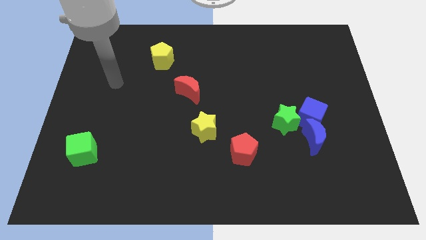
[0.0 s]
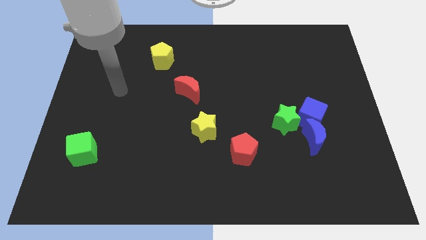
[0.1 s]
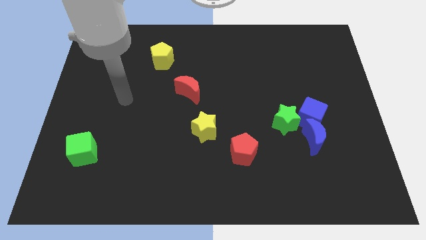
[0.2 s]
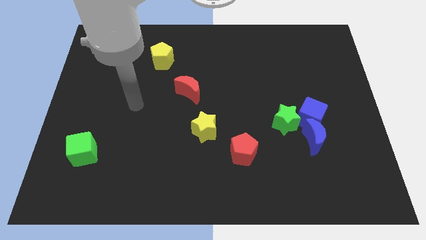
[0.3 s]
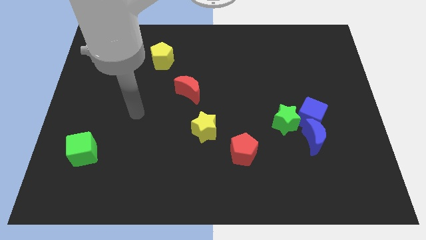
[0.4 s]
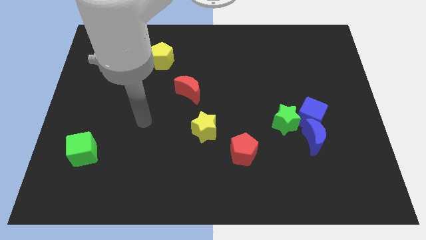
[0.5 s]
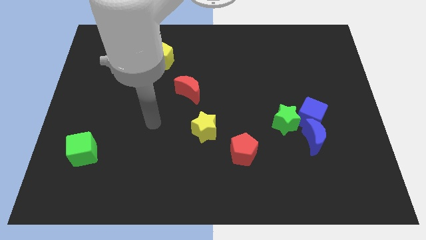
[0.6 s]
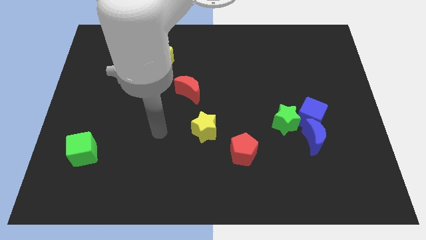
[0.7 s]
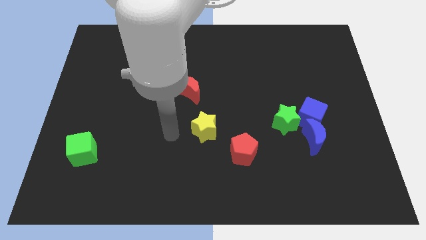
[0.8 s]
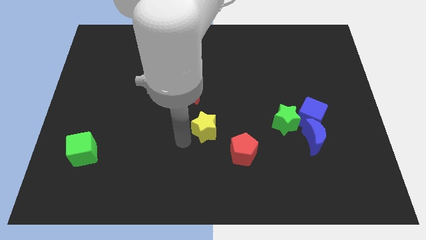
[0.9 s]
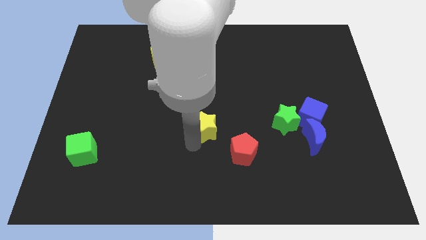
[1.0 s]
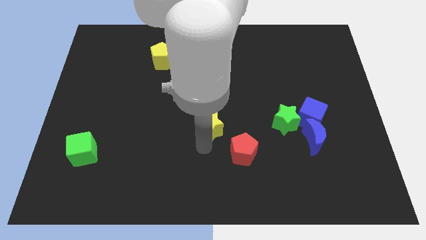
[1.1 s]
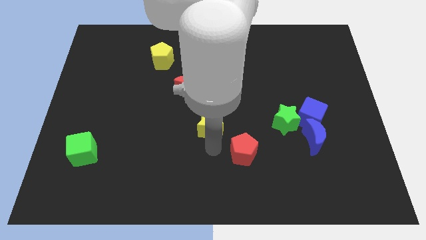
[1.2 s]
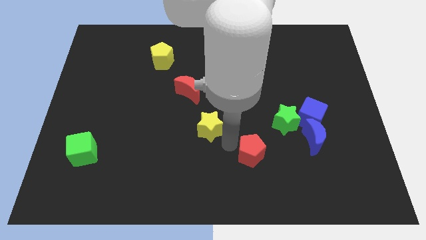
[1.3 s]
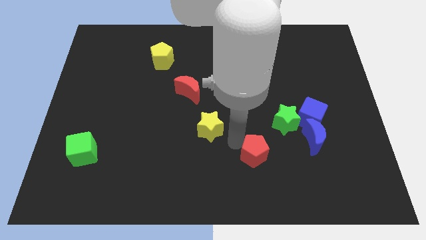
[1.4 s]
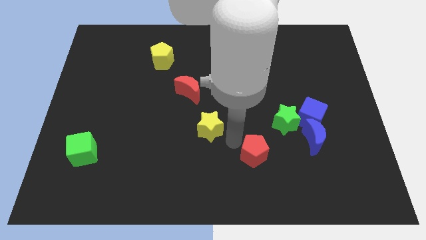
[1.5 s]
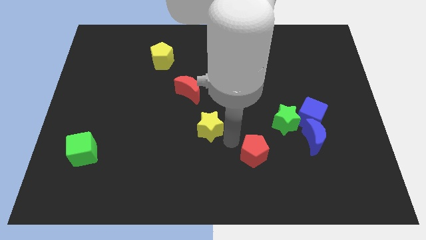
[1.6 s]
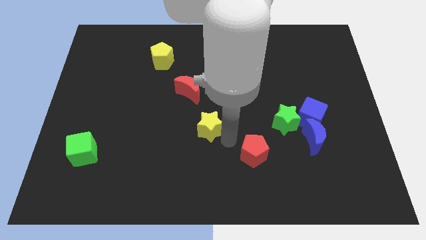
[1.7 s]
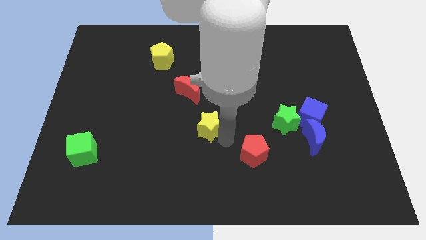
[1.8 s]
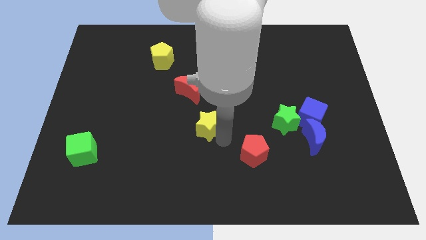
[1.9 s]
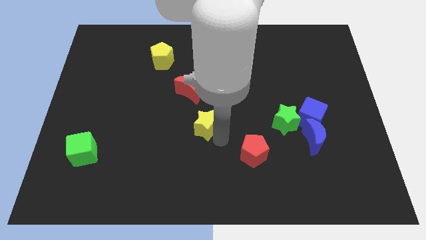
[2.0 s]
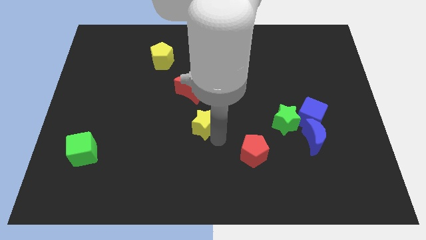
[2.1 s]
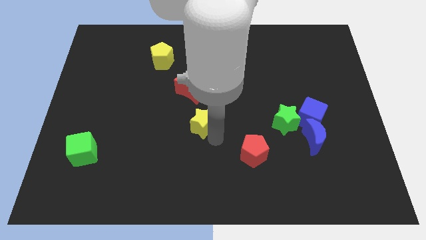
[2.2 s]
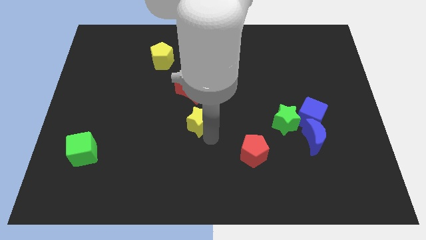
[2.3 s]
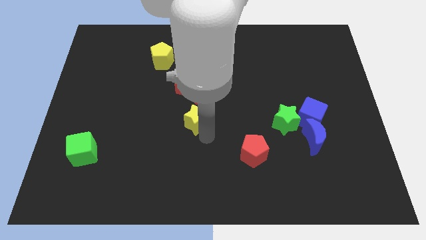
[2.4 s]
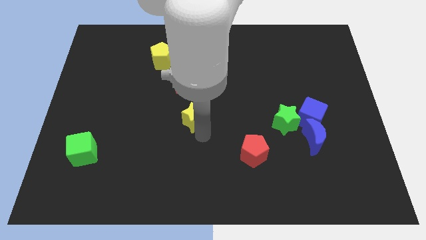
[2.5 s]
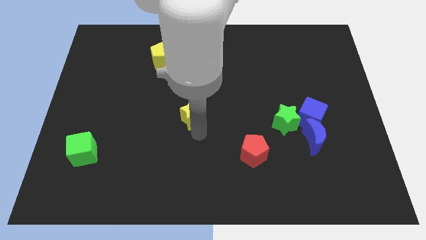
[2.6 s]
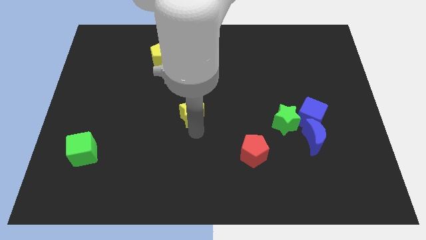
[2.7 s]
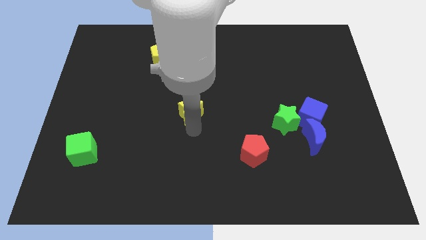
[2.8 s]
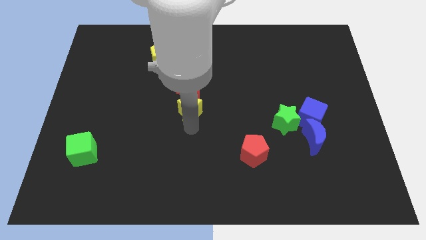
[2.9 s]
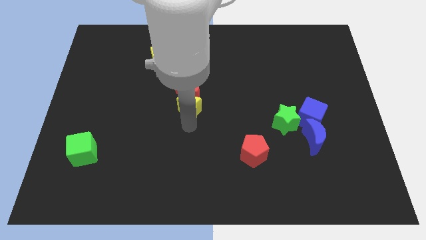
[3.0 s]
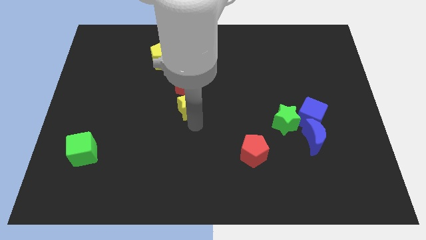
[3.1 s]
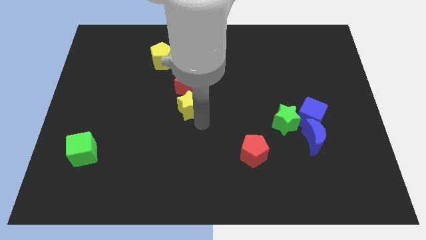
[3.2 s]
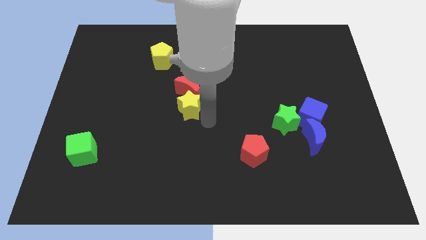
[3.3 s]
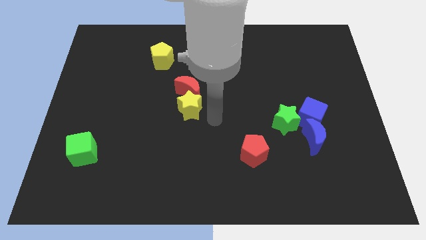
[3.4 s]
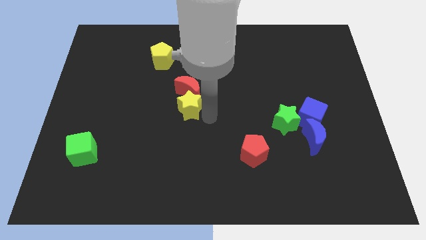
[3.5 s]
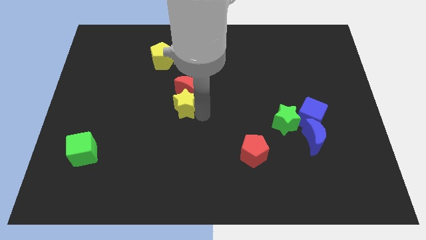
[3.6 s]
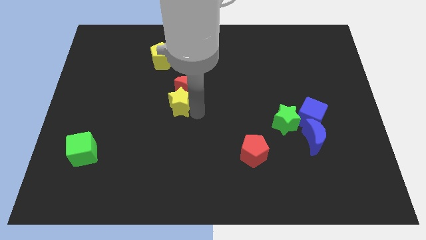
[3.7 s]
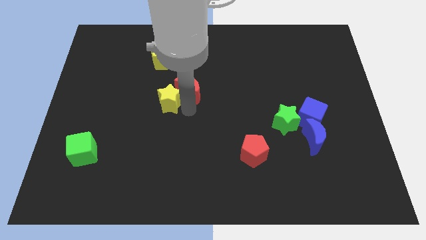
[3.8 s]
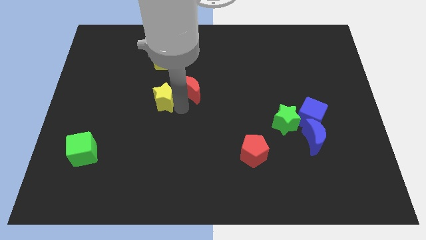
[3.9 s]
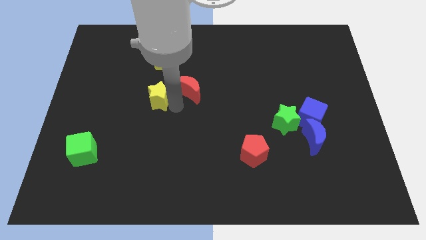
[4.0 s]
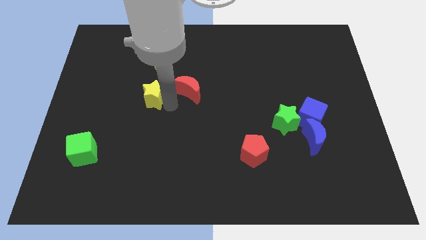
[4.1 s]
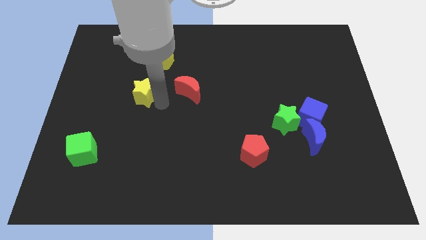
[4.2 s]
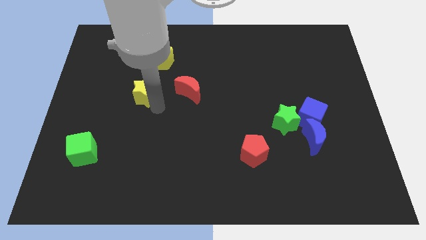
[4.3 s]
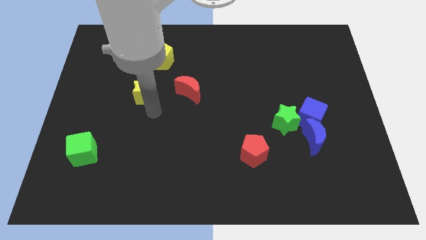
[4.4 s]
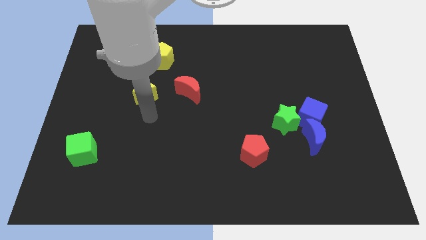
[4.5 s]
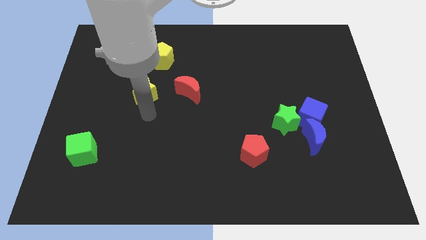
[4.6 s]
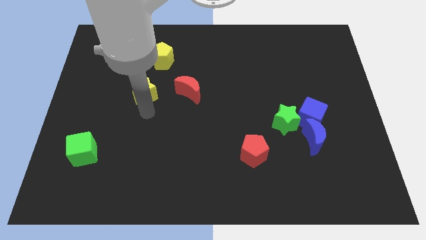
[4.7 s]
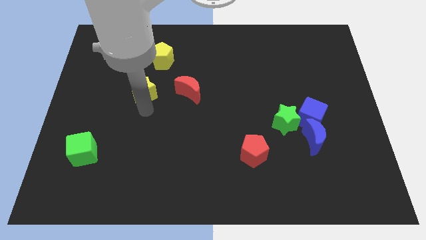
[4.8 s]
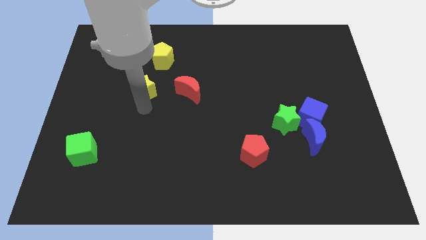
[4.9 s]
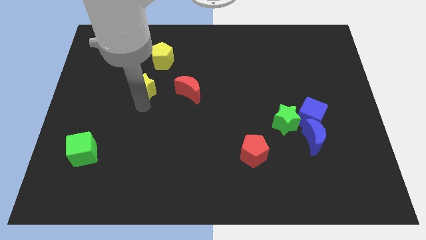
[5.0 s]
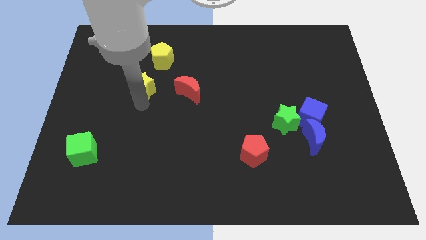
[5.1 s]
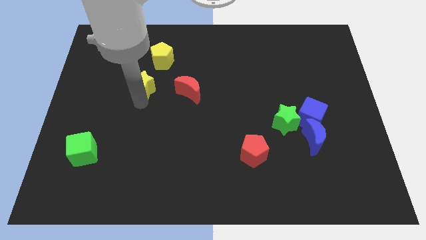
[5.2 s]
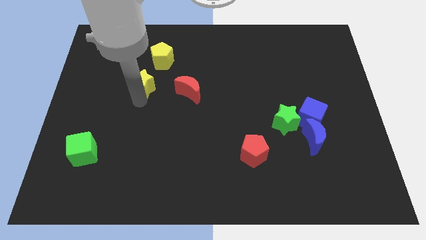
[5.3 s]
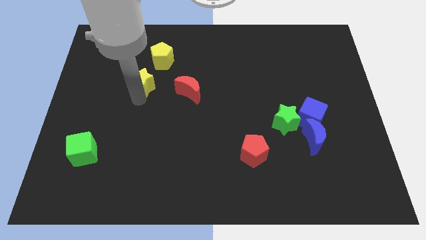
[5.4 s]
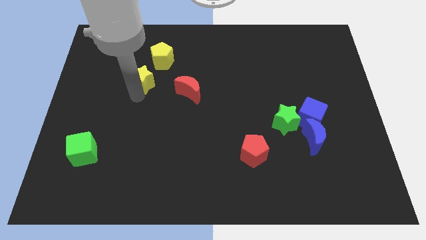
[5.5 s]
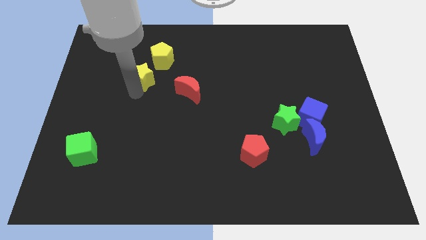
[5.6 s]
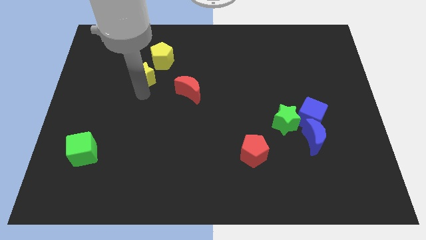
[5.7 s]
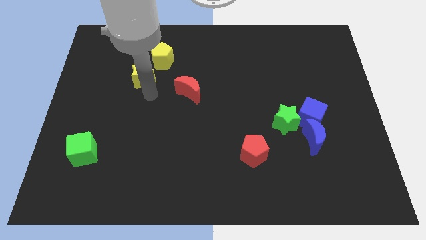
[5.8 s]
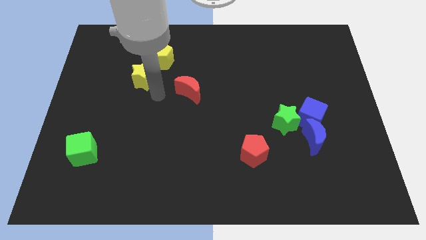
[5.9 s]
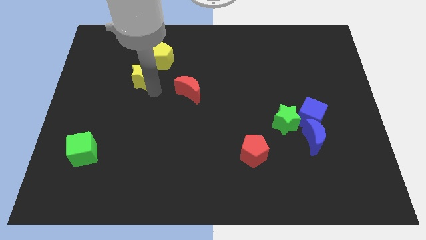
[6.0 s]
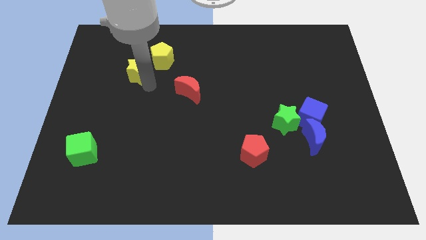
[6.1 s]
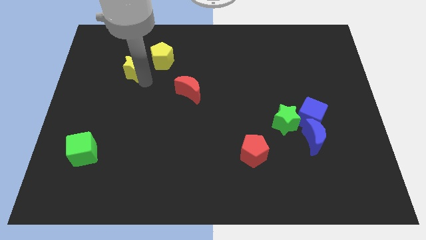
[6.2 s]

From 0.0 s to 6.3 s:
move the yellow star to the left side of the yellow pentagon
